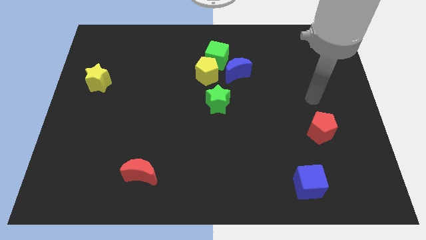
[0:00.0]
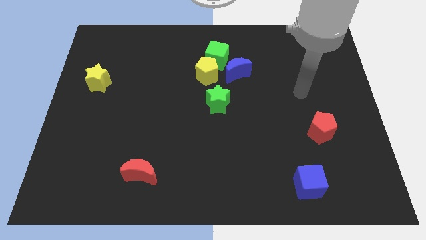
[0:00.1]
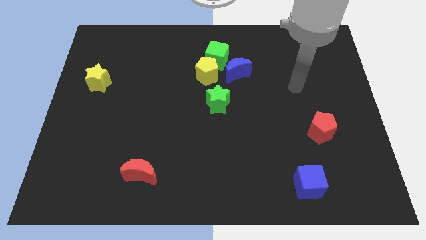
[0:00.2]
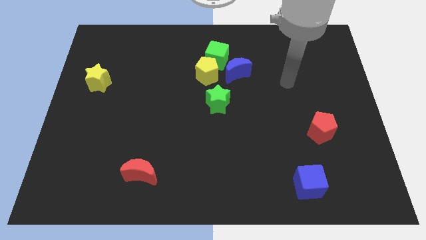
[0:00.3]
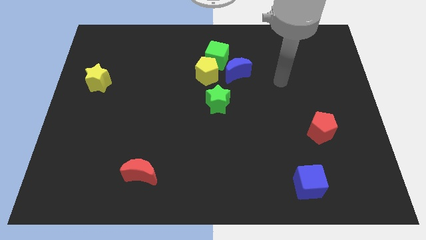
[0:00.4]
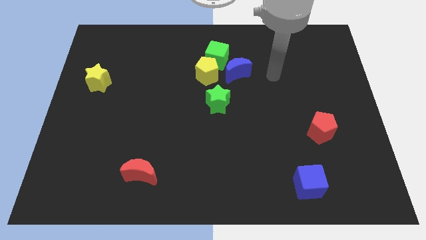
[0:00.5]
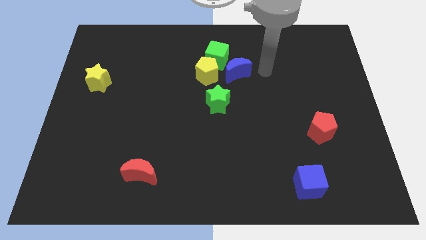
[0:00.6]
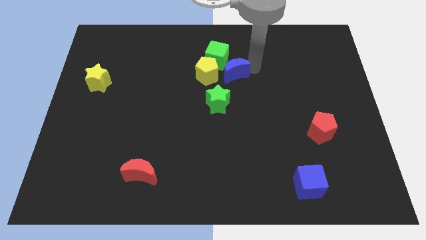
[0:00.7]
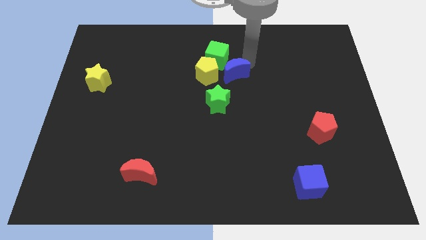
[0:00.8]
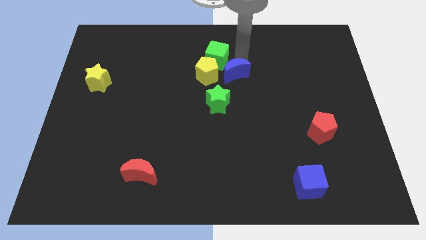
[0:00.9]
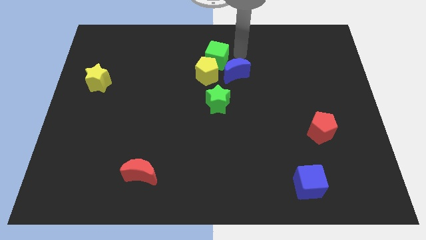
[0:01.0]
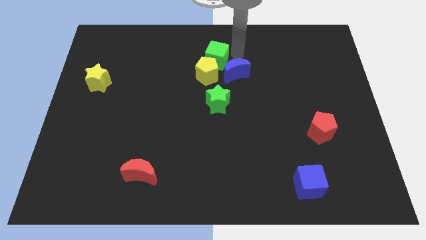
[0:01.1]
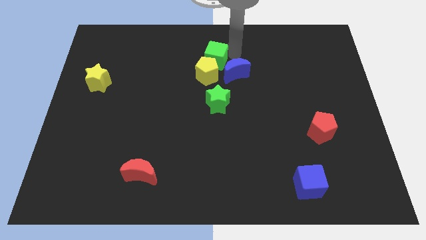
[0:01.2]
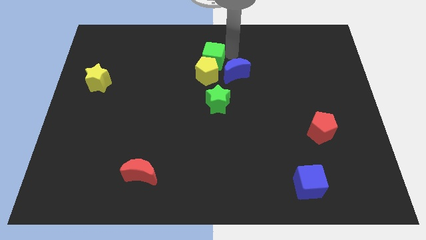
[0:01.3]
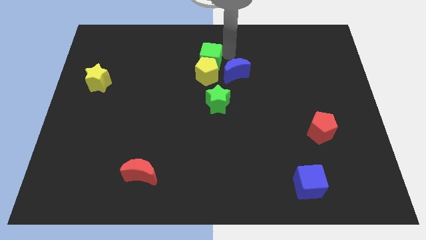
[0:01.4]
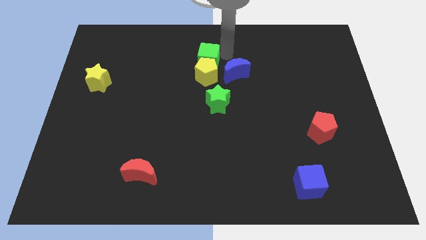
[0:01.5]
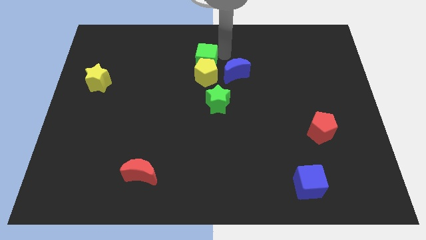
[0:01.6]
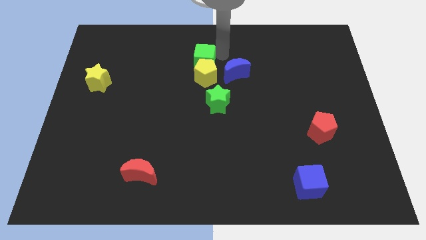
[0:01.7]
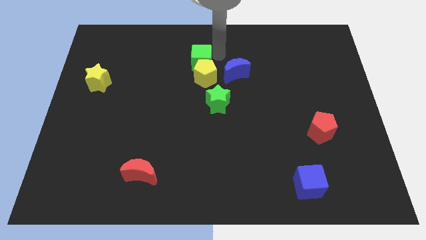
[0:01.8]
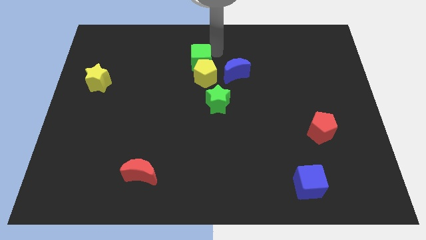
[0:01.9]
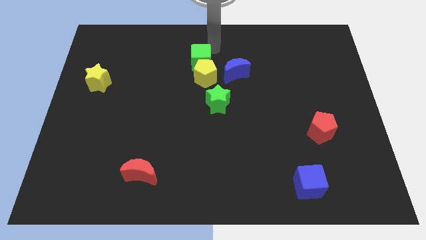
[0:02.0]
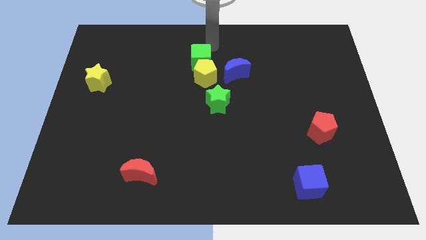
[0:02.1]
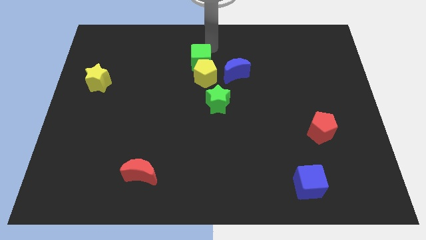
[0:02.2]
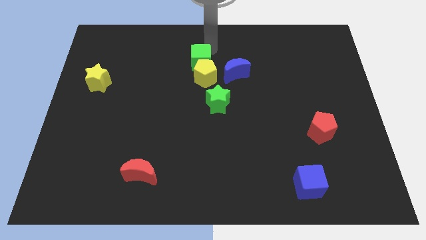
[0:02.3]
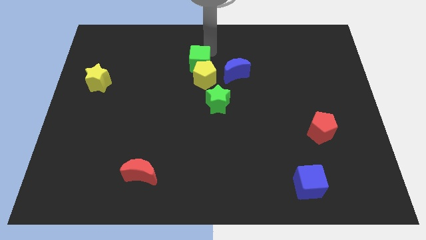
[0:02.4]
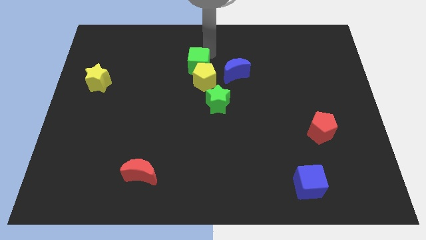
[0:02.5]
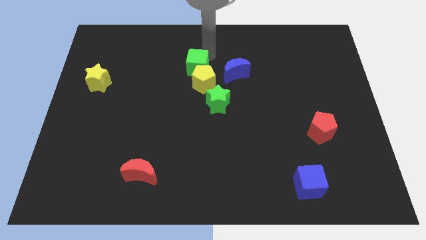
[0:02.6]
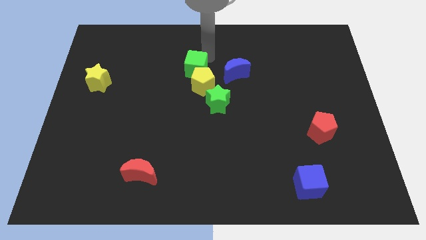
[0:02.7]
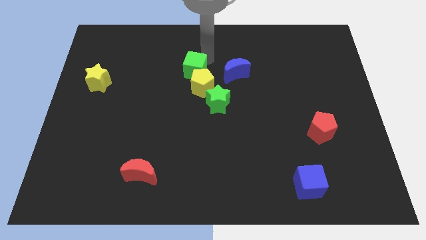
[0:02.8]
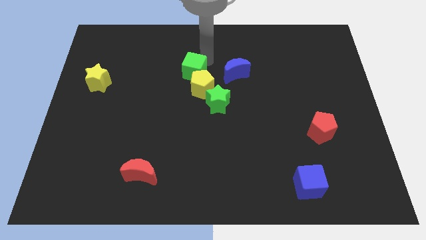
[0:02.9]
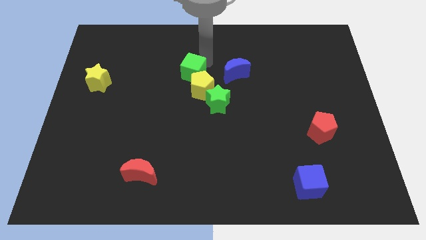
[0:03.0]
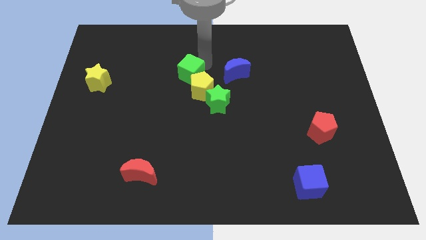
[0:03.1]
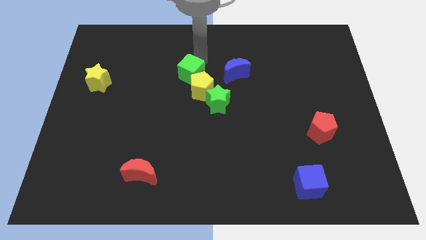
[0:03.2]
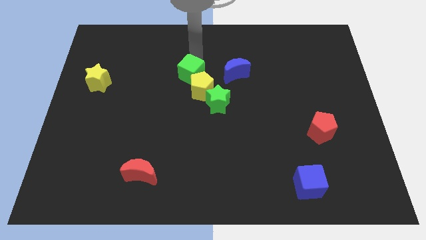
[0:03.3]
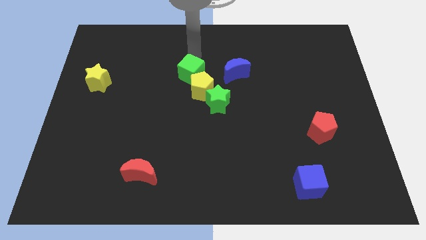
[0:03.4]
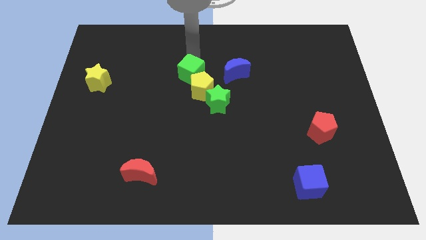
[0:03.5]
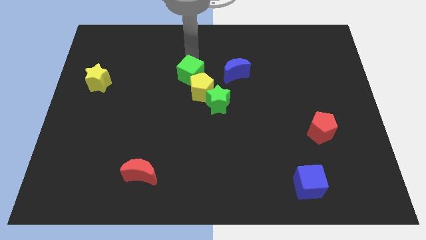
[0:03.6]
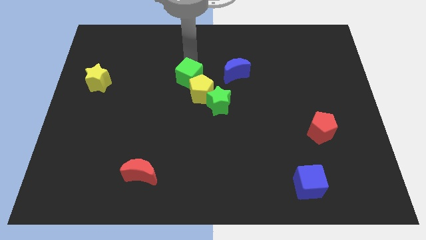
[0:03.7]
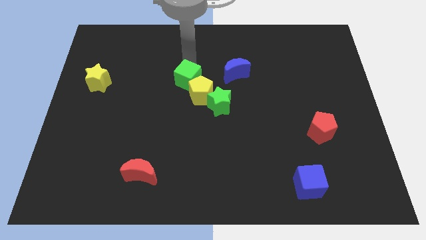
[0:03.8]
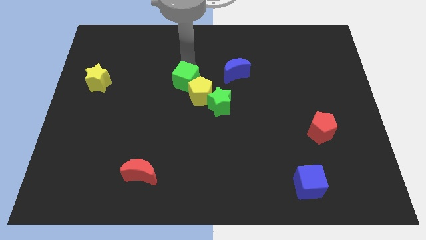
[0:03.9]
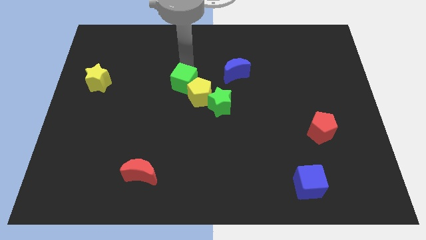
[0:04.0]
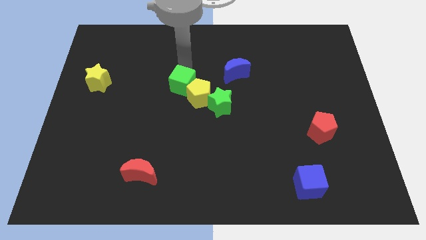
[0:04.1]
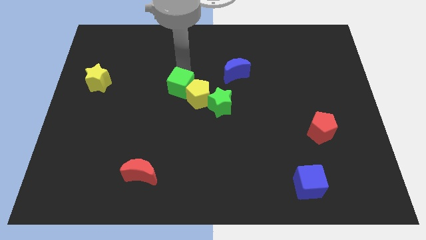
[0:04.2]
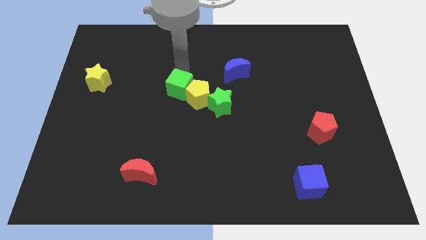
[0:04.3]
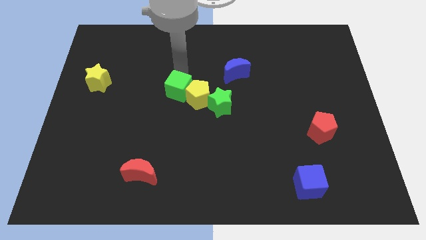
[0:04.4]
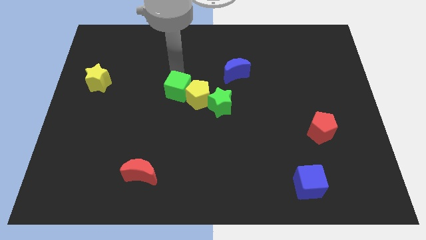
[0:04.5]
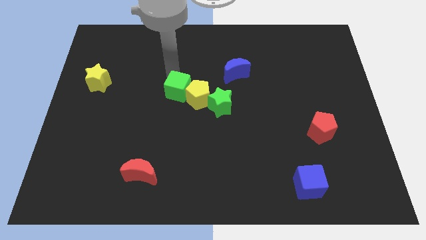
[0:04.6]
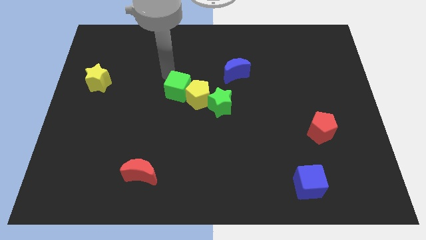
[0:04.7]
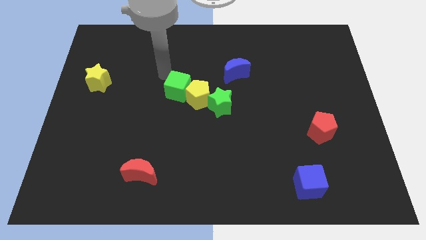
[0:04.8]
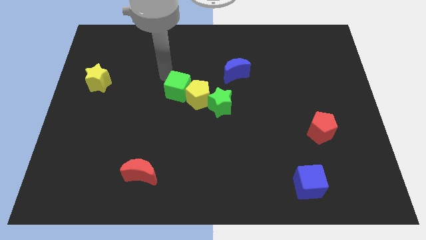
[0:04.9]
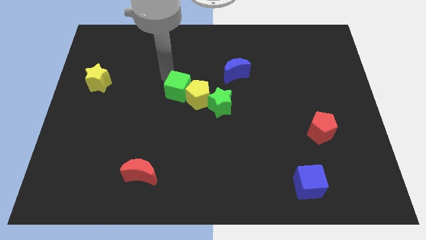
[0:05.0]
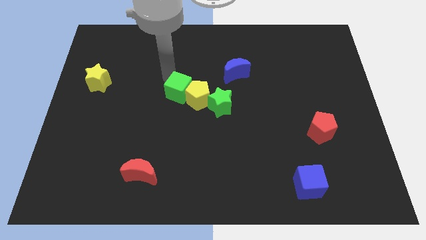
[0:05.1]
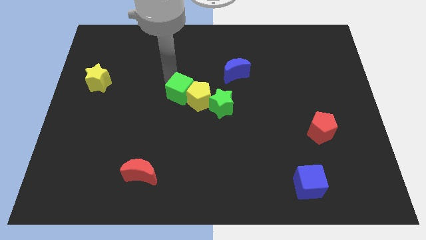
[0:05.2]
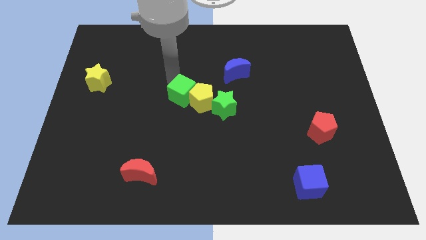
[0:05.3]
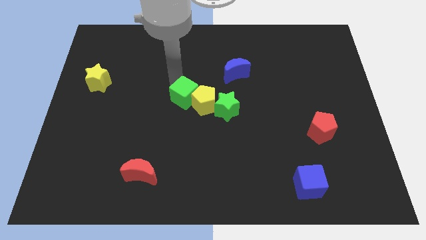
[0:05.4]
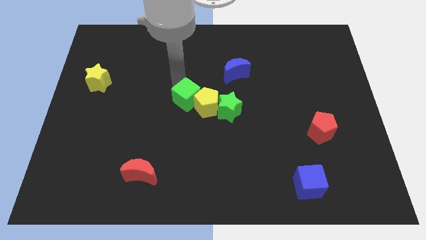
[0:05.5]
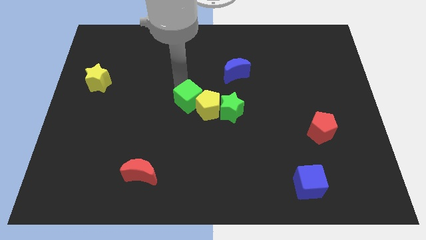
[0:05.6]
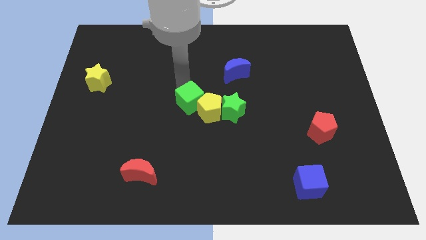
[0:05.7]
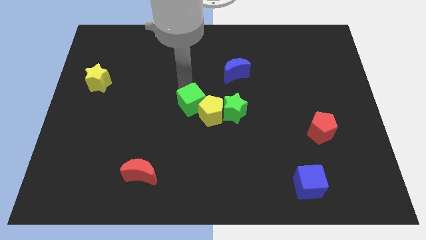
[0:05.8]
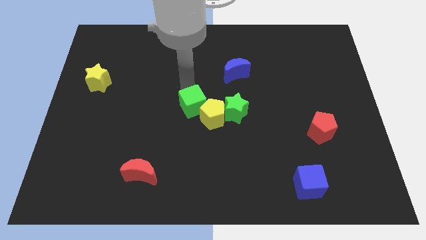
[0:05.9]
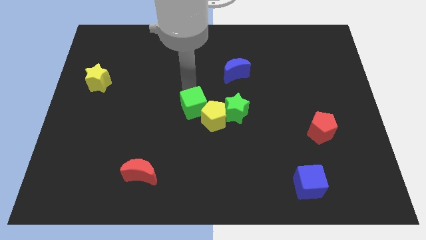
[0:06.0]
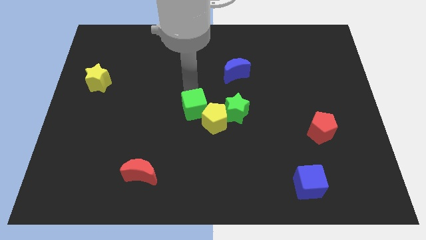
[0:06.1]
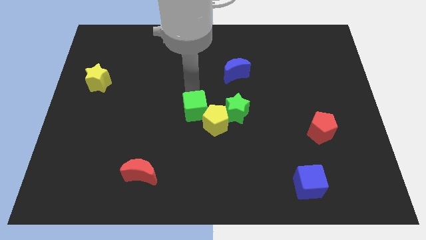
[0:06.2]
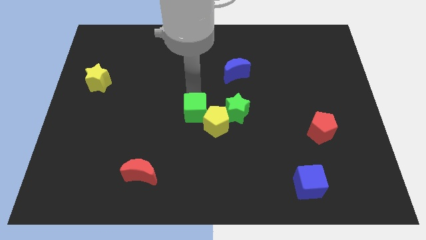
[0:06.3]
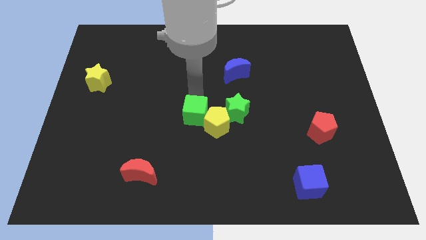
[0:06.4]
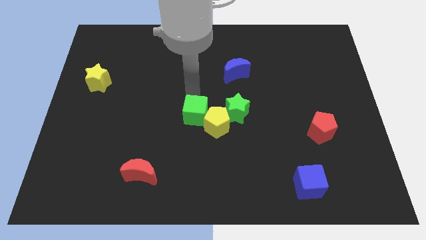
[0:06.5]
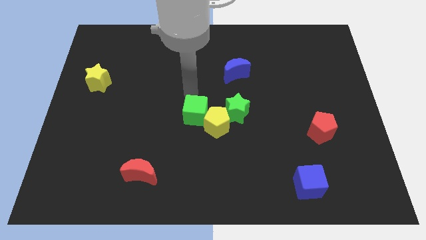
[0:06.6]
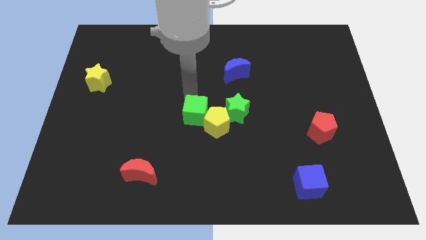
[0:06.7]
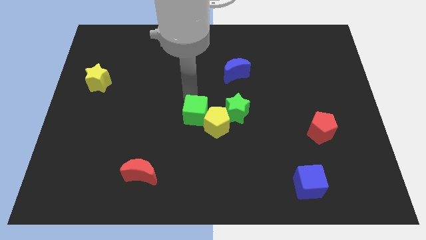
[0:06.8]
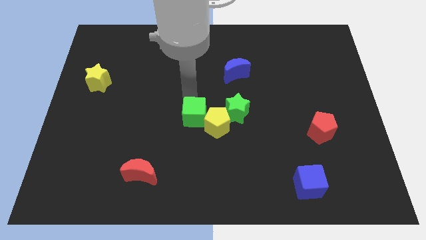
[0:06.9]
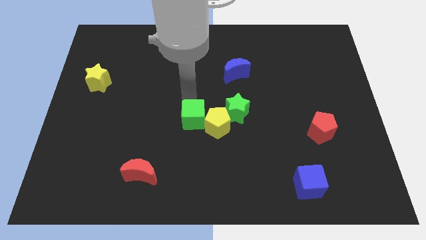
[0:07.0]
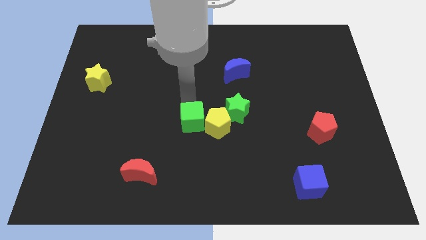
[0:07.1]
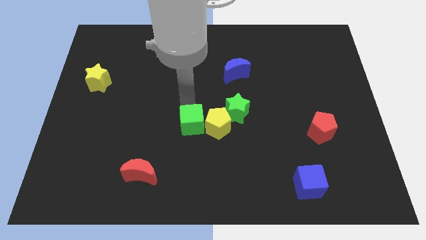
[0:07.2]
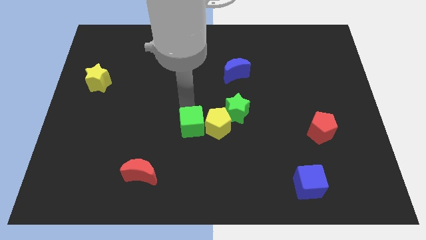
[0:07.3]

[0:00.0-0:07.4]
move the green cube down

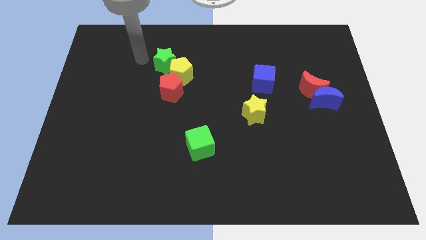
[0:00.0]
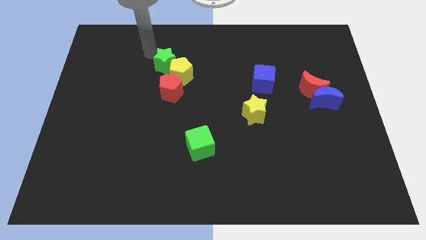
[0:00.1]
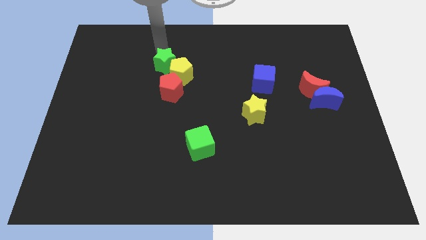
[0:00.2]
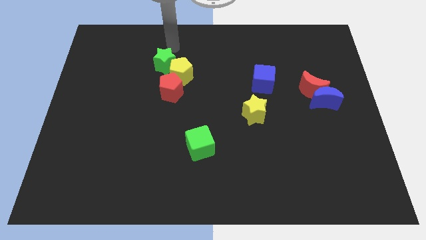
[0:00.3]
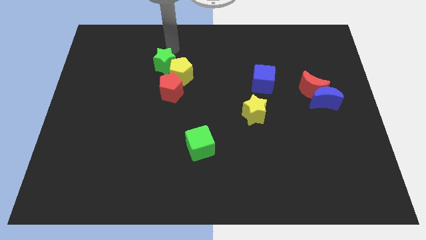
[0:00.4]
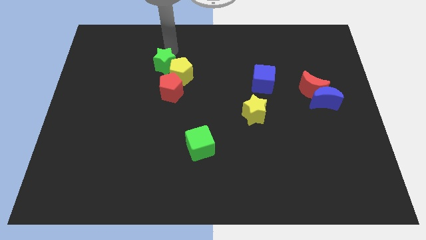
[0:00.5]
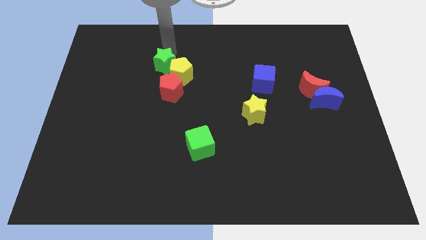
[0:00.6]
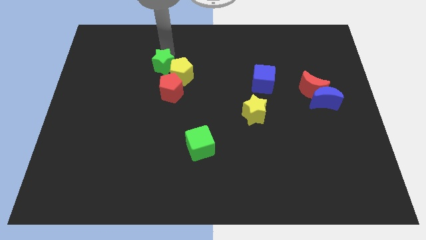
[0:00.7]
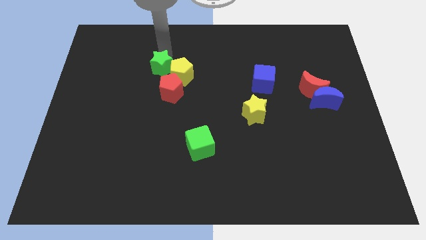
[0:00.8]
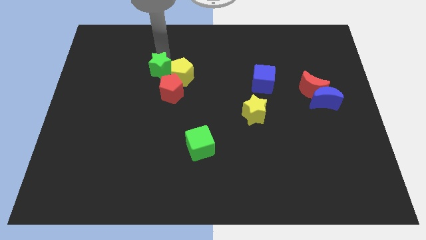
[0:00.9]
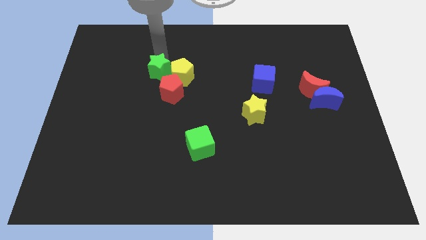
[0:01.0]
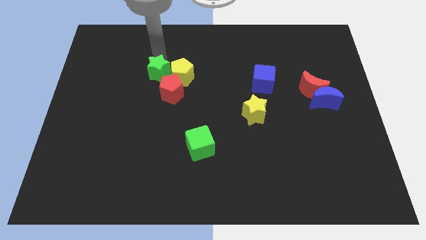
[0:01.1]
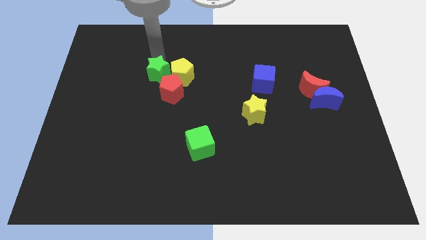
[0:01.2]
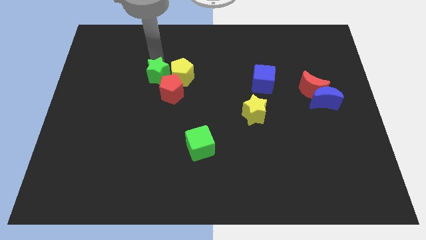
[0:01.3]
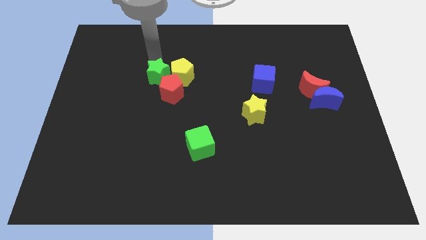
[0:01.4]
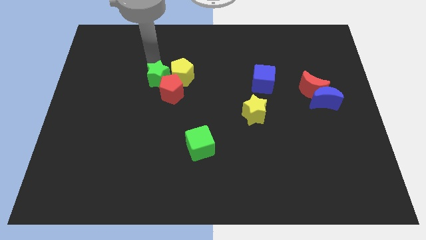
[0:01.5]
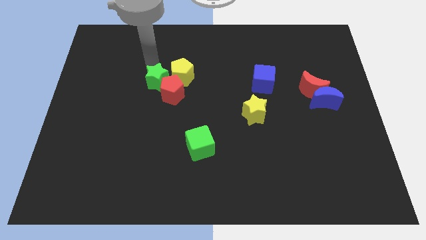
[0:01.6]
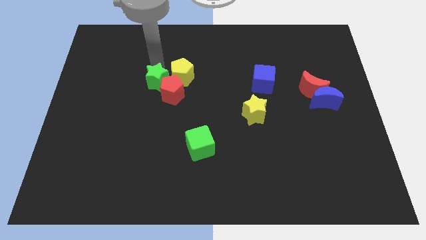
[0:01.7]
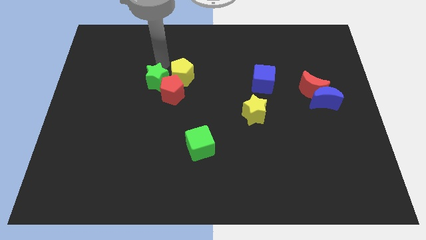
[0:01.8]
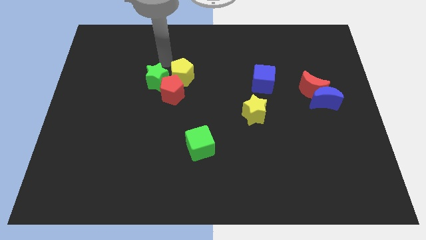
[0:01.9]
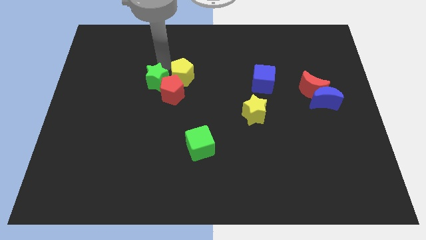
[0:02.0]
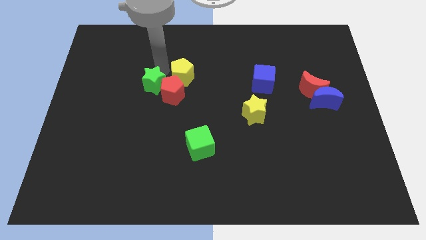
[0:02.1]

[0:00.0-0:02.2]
push the green star a bit down
